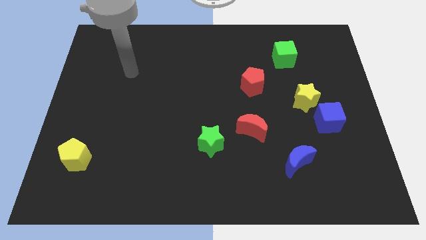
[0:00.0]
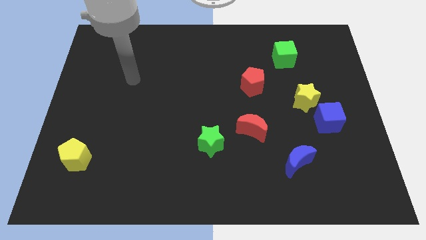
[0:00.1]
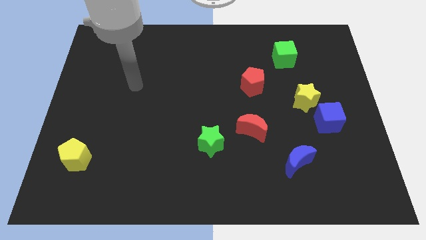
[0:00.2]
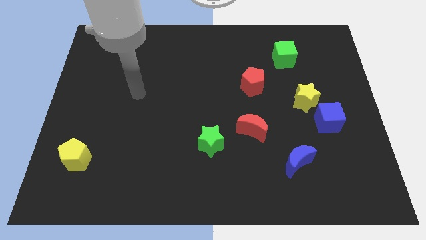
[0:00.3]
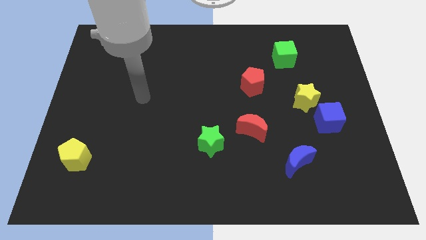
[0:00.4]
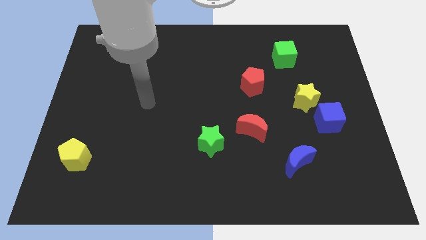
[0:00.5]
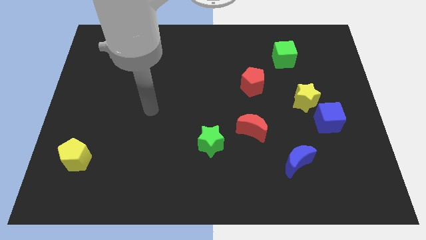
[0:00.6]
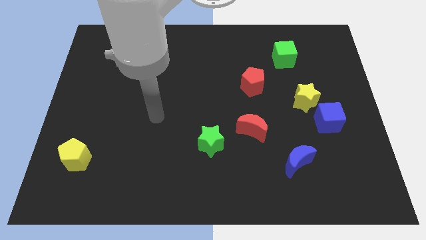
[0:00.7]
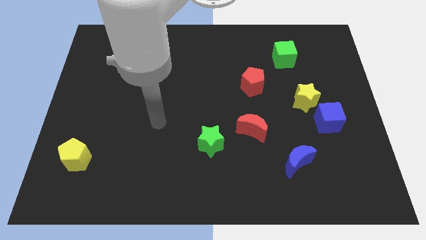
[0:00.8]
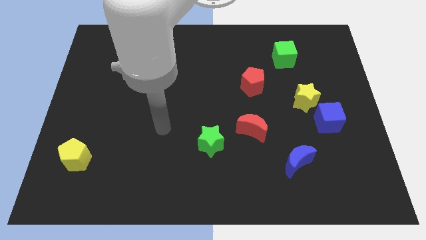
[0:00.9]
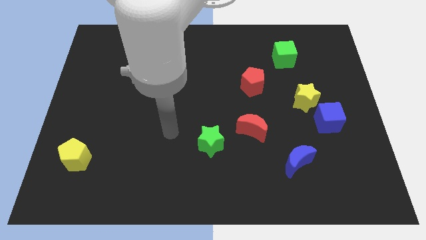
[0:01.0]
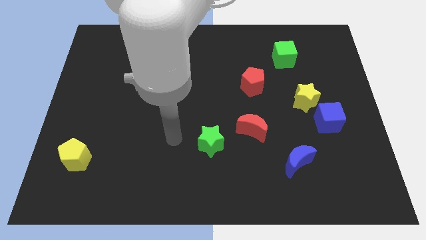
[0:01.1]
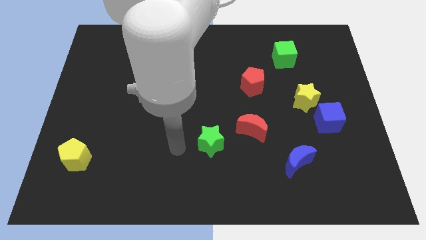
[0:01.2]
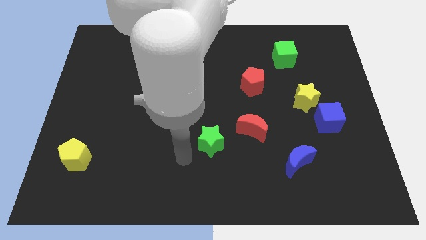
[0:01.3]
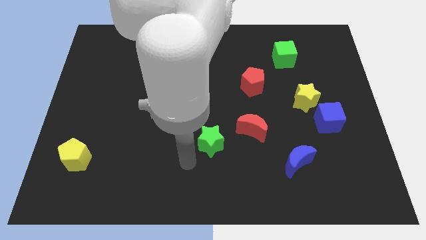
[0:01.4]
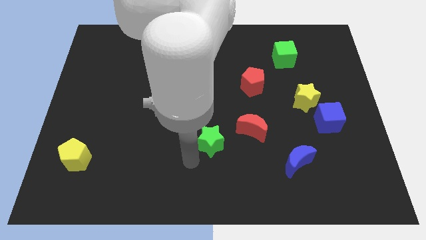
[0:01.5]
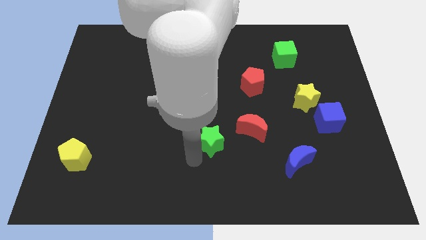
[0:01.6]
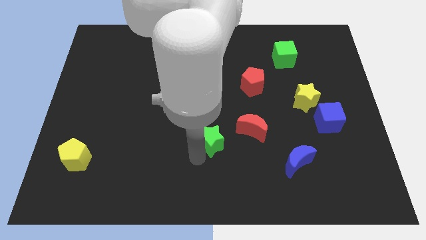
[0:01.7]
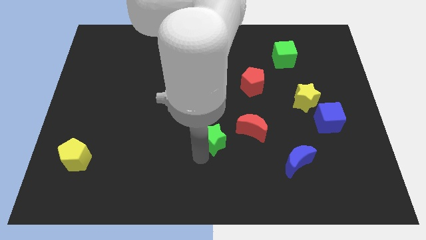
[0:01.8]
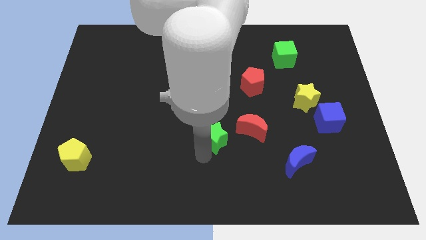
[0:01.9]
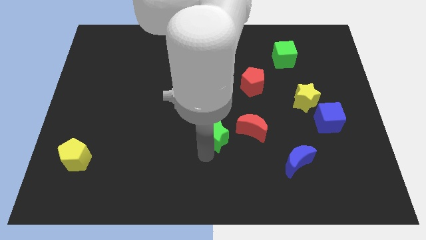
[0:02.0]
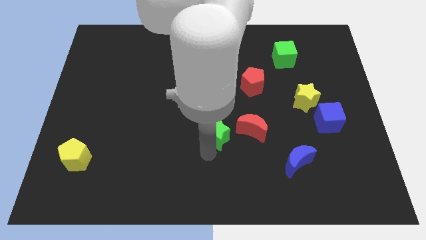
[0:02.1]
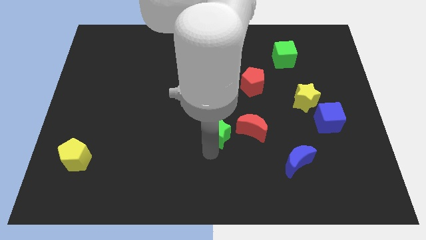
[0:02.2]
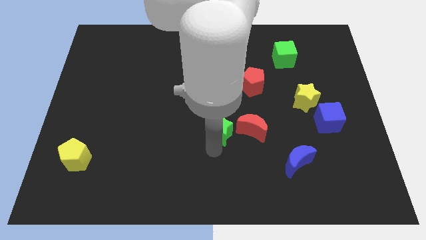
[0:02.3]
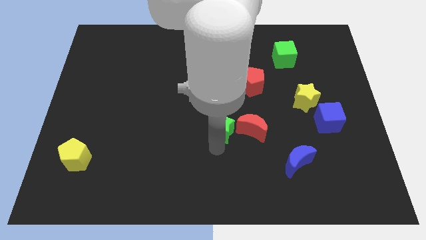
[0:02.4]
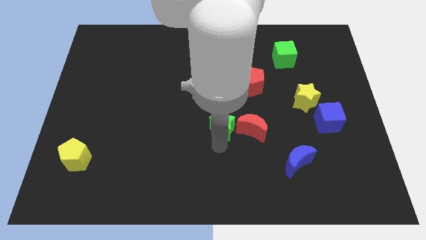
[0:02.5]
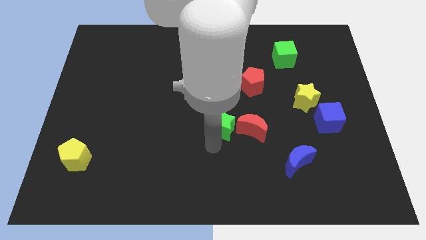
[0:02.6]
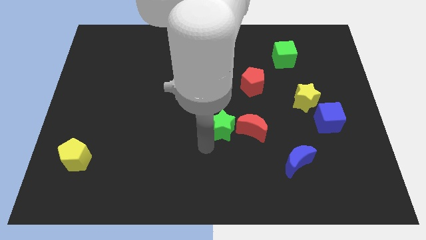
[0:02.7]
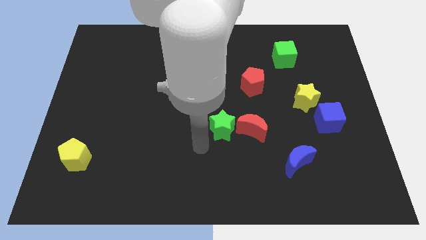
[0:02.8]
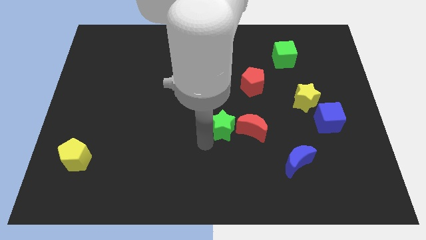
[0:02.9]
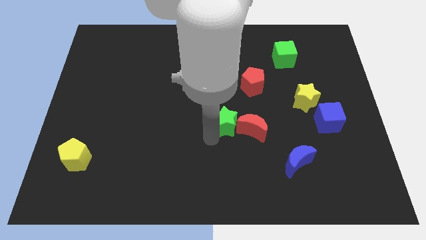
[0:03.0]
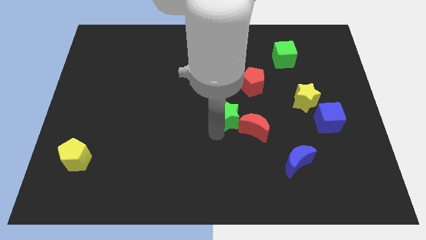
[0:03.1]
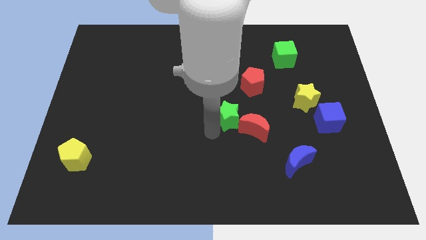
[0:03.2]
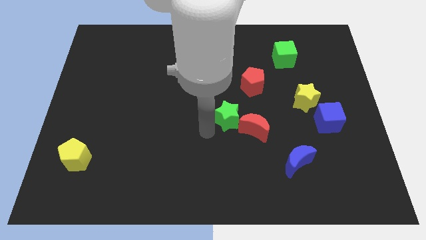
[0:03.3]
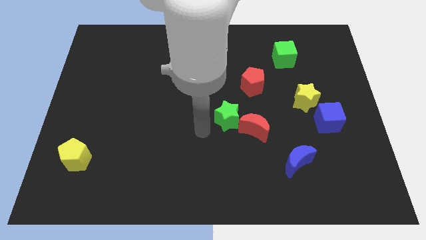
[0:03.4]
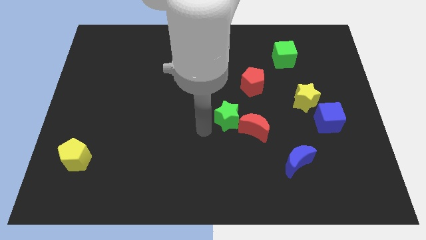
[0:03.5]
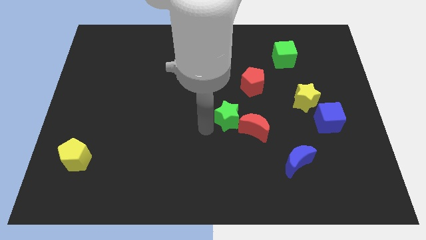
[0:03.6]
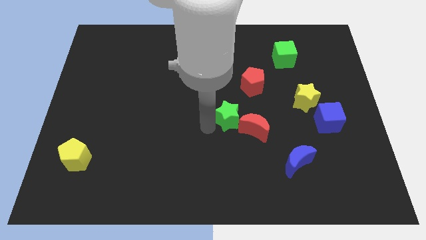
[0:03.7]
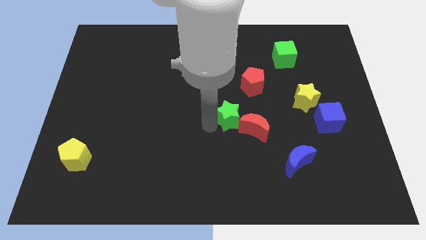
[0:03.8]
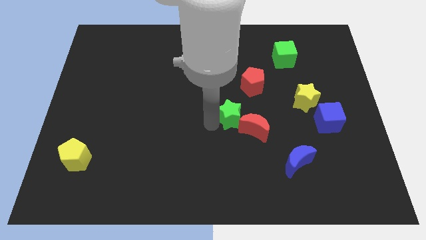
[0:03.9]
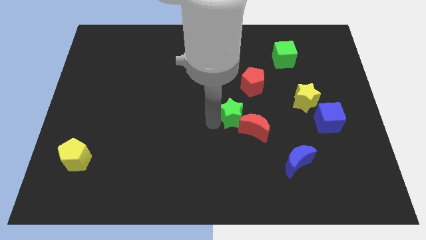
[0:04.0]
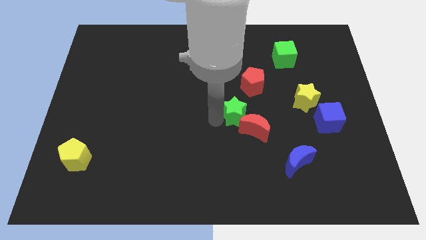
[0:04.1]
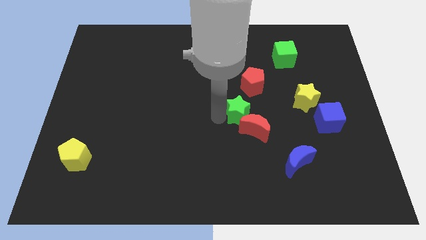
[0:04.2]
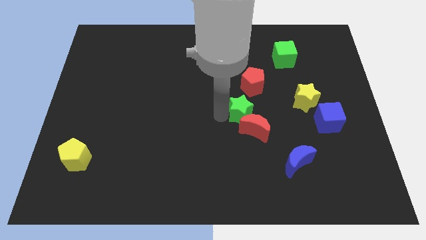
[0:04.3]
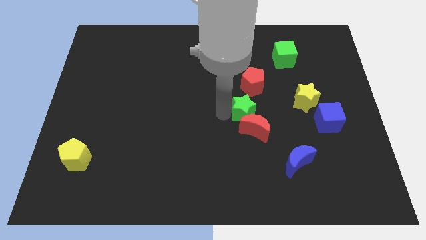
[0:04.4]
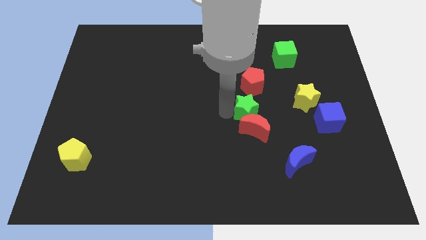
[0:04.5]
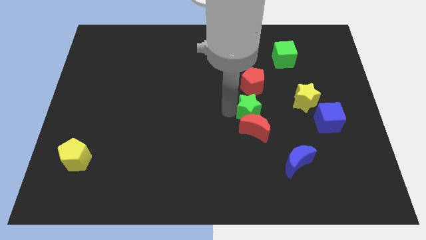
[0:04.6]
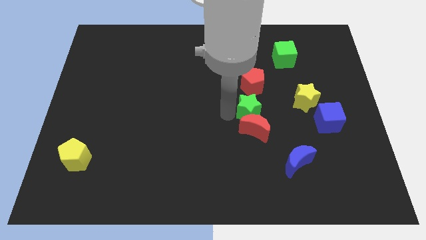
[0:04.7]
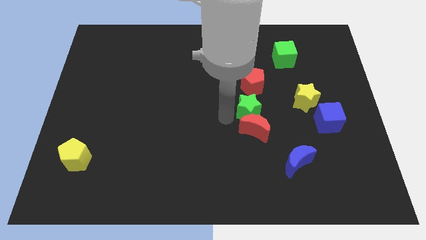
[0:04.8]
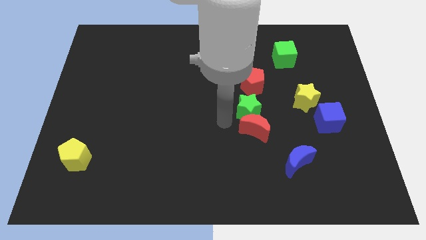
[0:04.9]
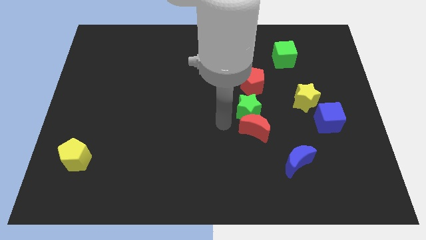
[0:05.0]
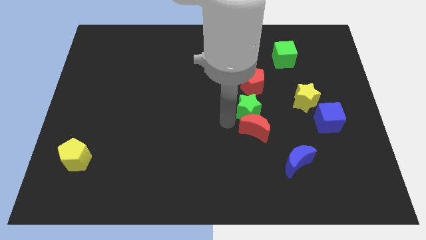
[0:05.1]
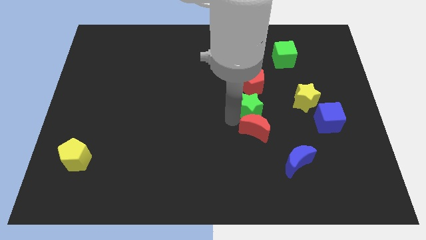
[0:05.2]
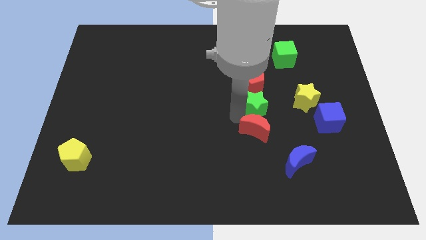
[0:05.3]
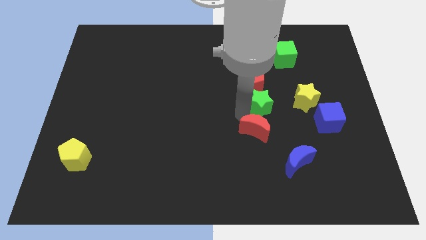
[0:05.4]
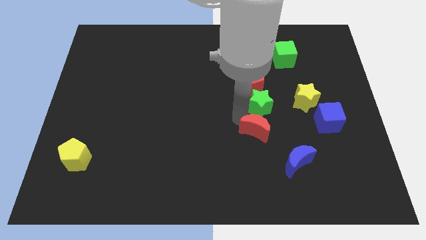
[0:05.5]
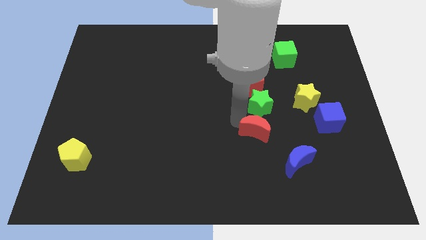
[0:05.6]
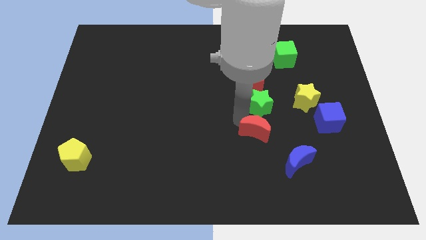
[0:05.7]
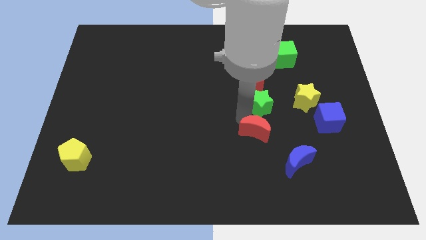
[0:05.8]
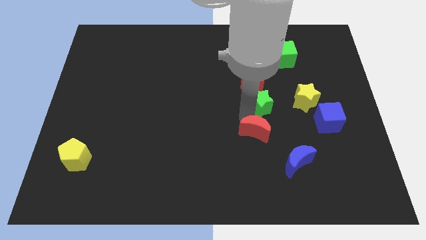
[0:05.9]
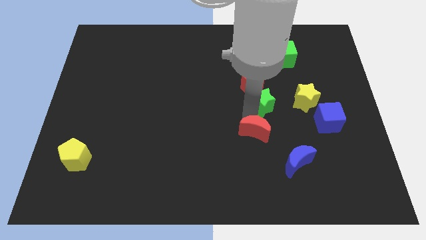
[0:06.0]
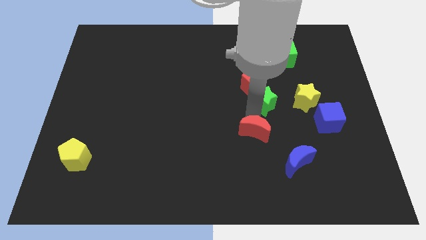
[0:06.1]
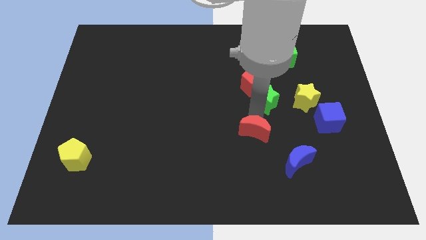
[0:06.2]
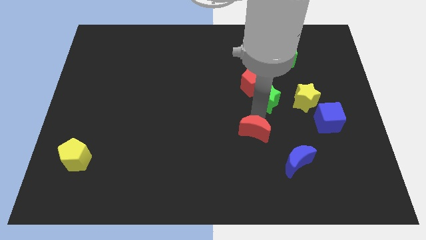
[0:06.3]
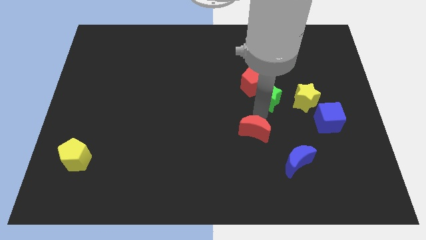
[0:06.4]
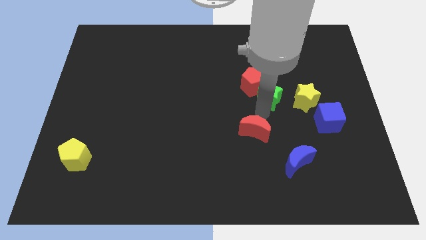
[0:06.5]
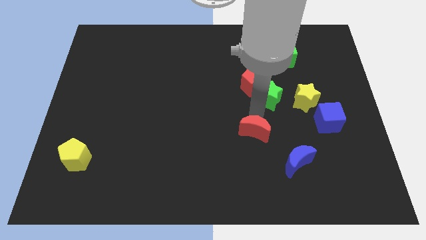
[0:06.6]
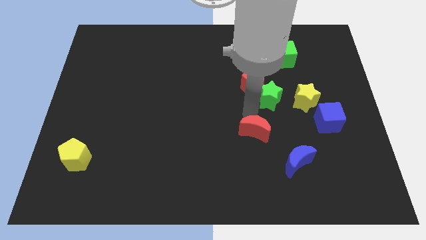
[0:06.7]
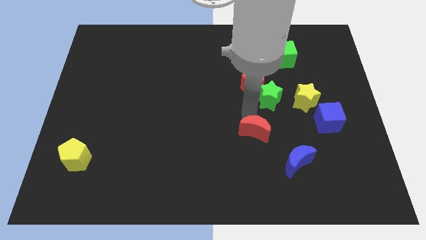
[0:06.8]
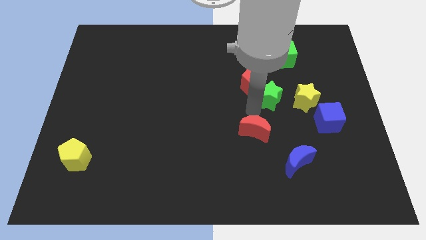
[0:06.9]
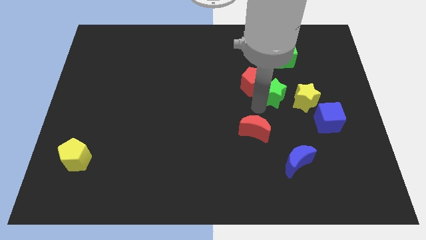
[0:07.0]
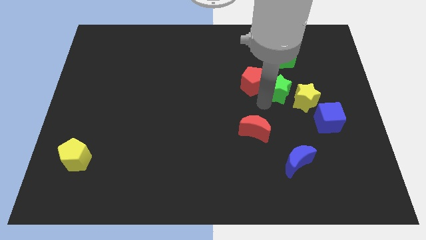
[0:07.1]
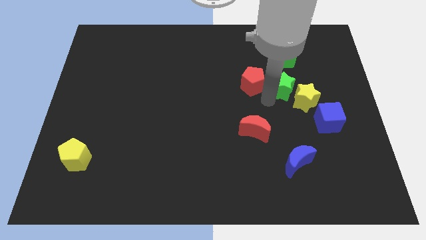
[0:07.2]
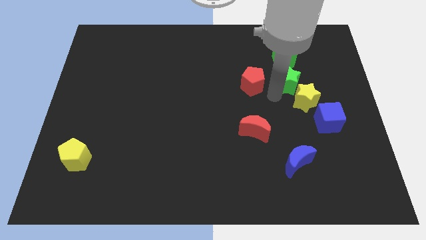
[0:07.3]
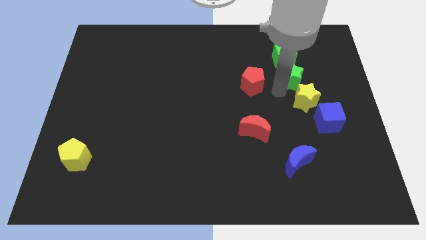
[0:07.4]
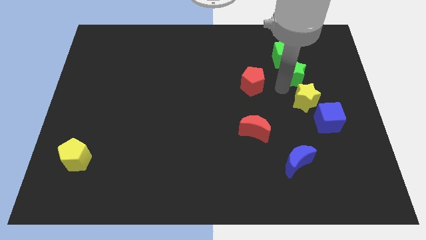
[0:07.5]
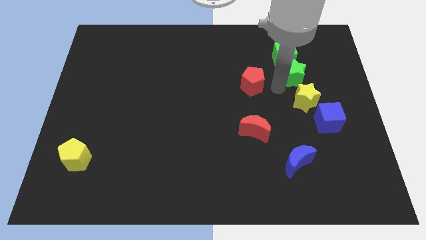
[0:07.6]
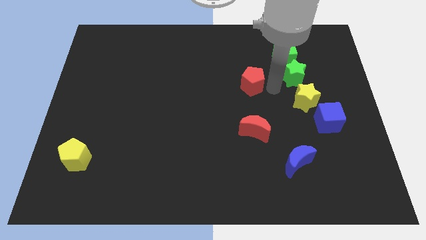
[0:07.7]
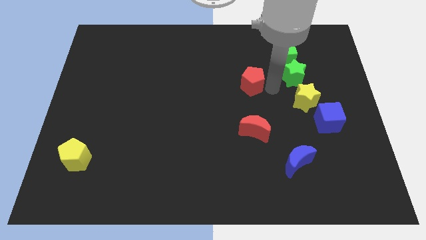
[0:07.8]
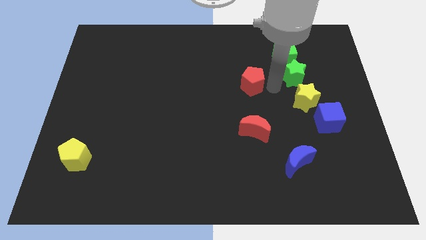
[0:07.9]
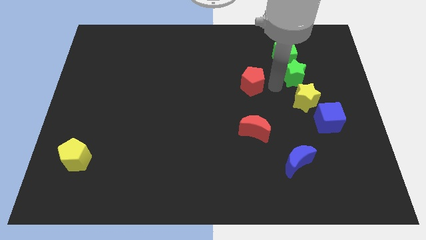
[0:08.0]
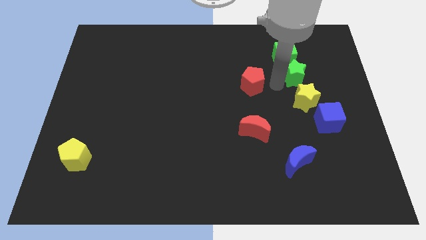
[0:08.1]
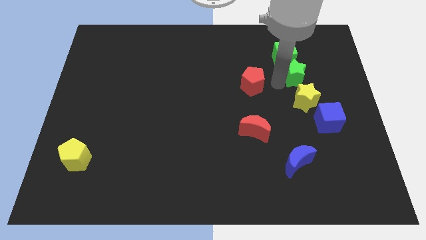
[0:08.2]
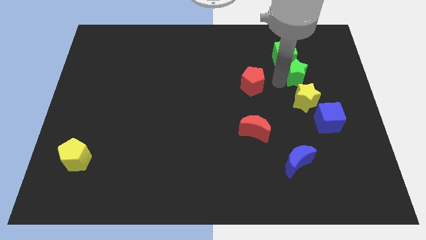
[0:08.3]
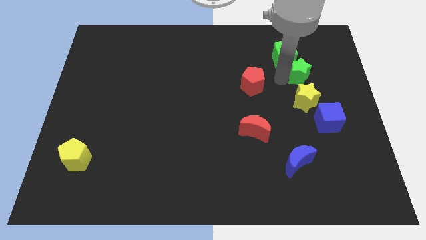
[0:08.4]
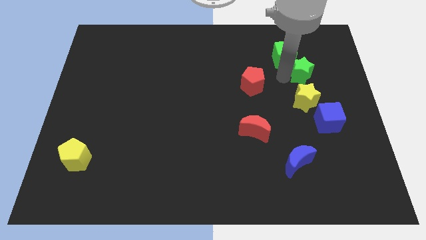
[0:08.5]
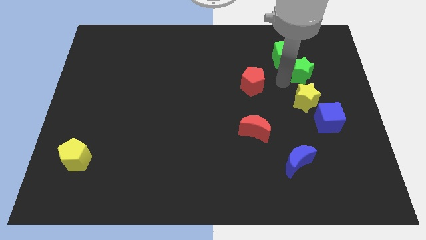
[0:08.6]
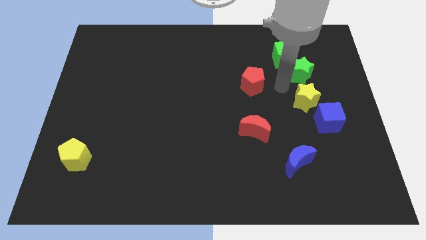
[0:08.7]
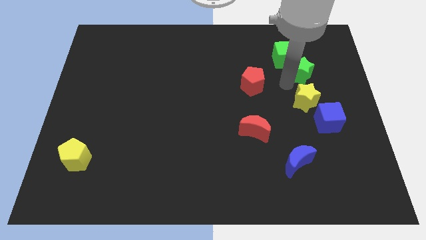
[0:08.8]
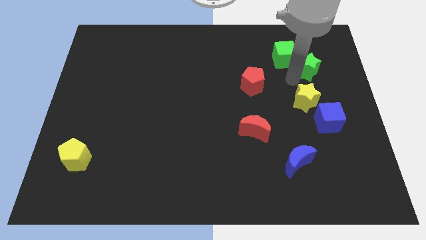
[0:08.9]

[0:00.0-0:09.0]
slide the green star to the right side of the green cube
